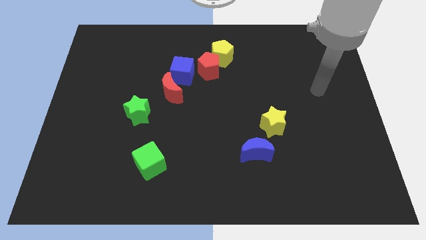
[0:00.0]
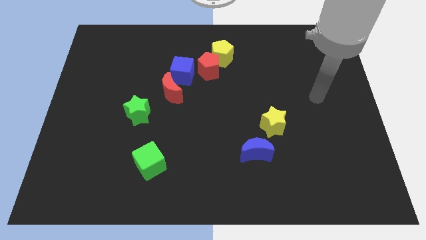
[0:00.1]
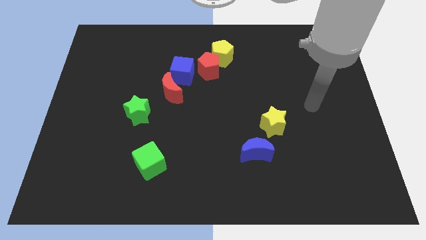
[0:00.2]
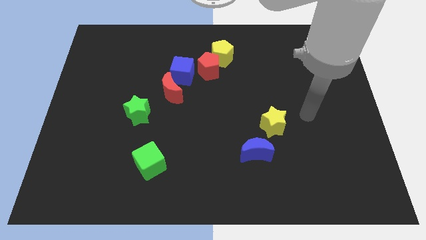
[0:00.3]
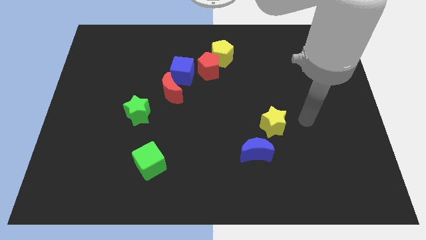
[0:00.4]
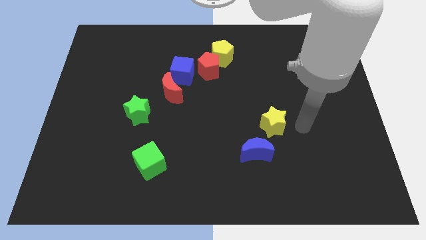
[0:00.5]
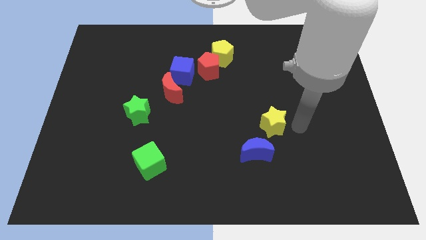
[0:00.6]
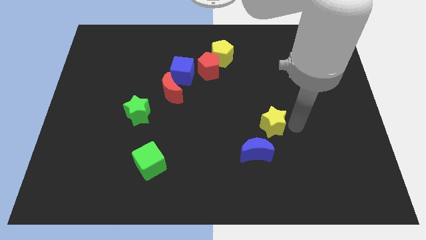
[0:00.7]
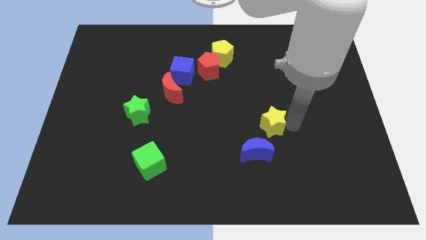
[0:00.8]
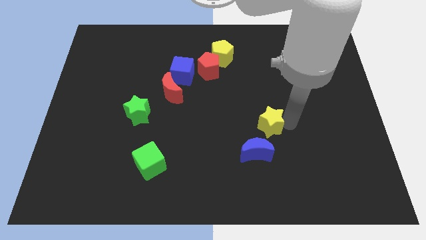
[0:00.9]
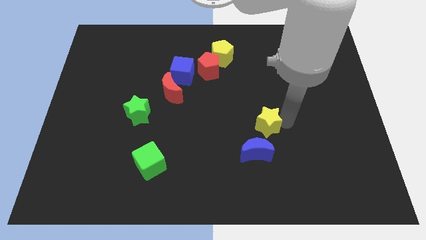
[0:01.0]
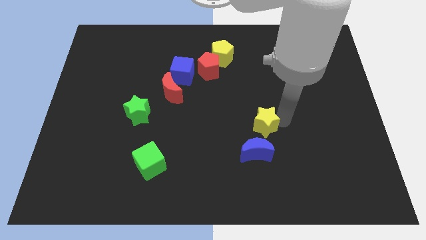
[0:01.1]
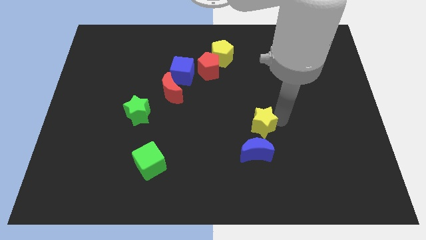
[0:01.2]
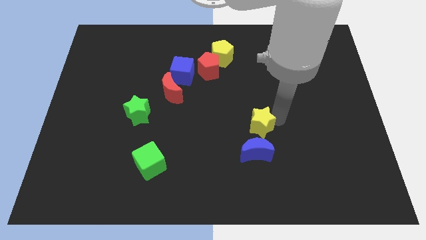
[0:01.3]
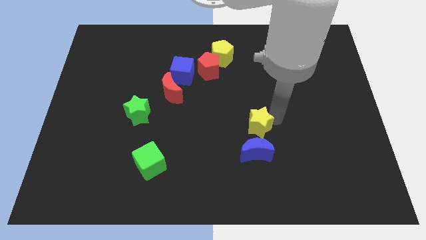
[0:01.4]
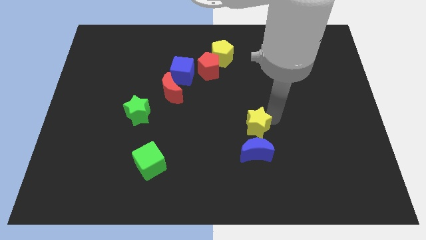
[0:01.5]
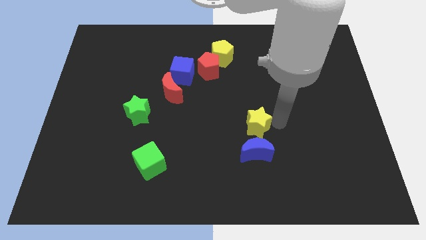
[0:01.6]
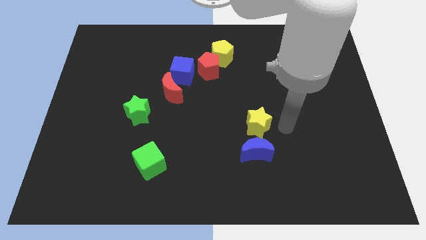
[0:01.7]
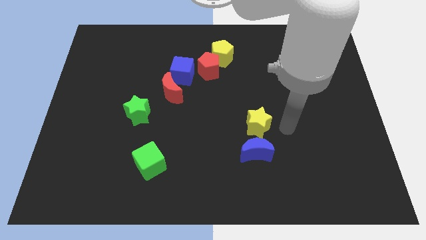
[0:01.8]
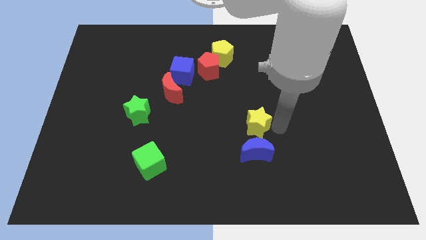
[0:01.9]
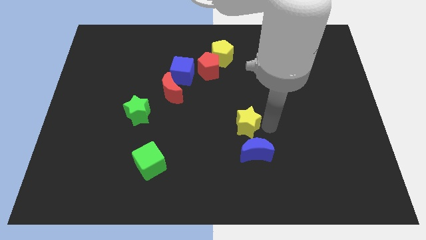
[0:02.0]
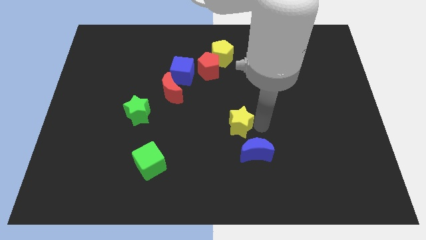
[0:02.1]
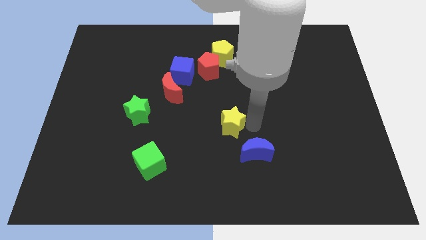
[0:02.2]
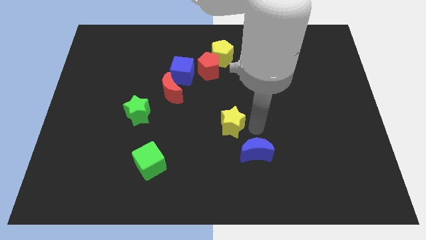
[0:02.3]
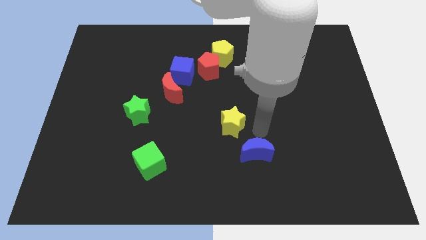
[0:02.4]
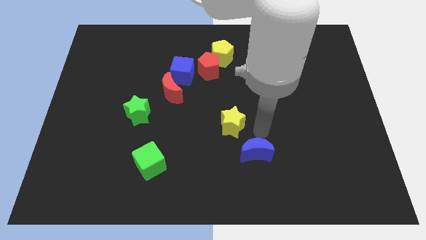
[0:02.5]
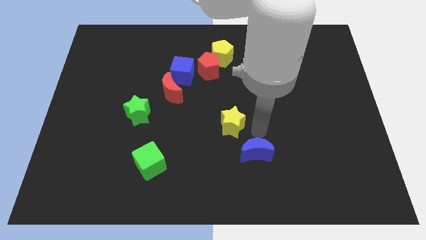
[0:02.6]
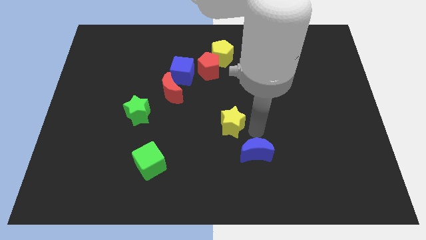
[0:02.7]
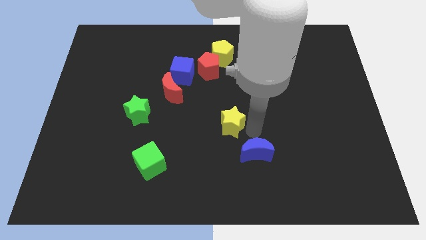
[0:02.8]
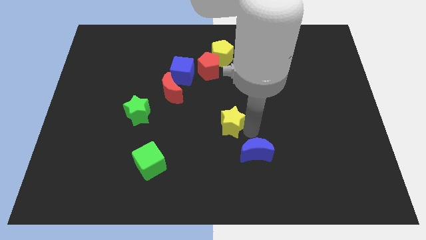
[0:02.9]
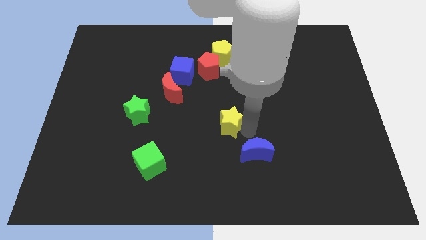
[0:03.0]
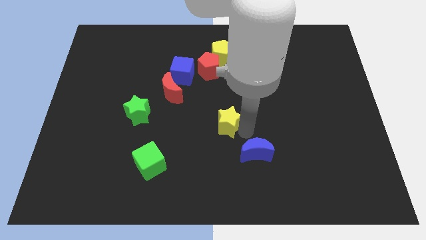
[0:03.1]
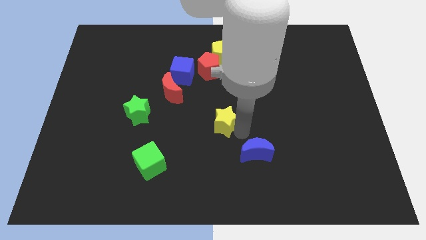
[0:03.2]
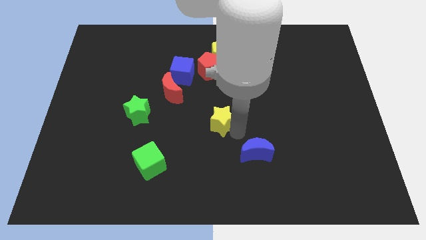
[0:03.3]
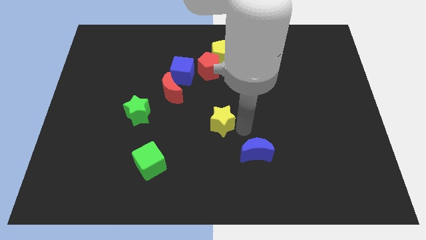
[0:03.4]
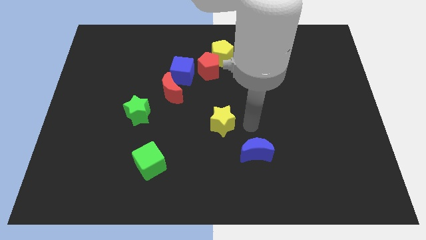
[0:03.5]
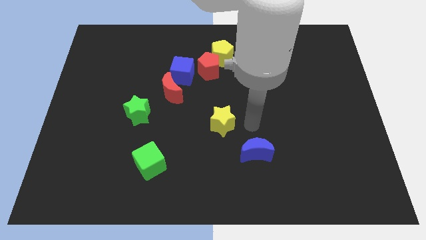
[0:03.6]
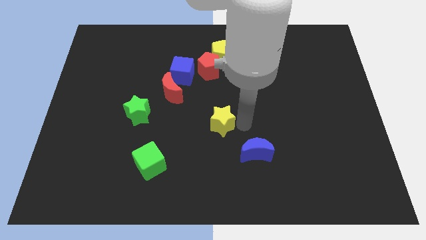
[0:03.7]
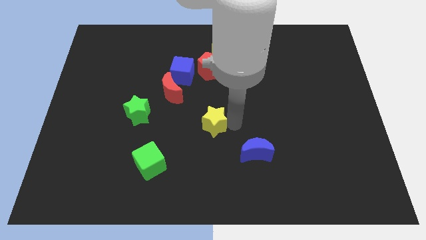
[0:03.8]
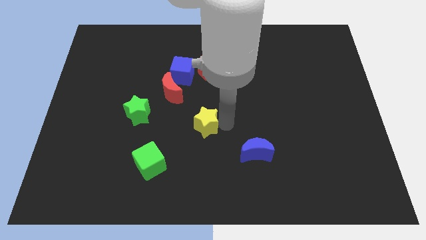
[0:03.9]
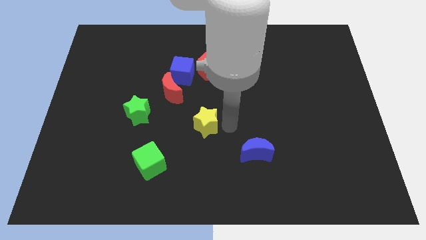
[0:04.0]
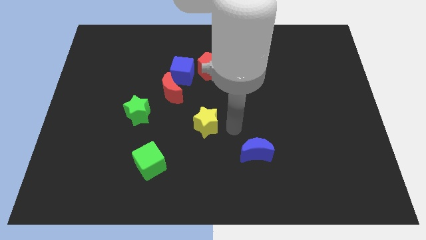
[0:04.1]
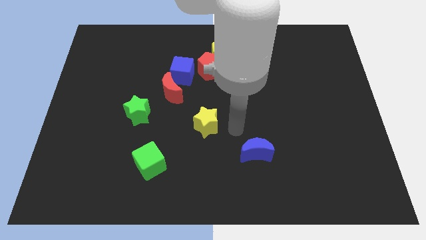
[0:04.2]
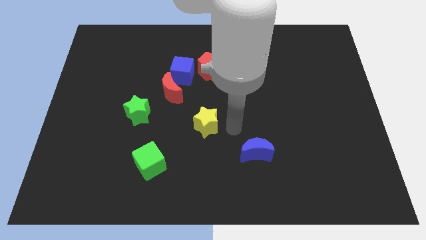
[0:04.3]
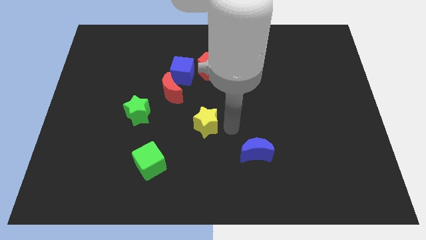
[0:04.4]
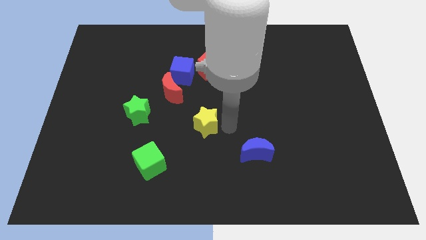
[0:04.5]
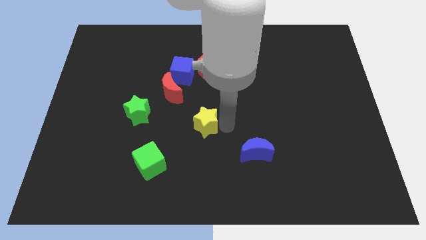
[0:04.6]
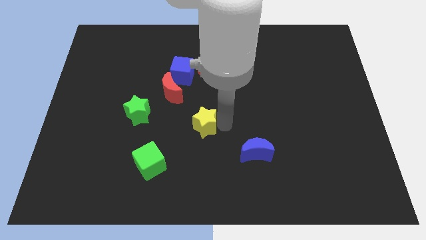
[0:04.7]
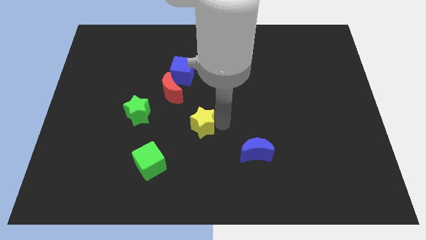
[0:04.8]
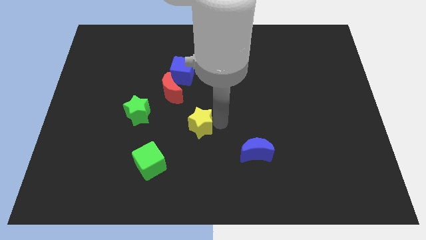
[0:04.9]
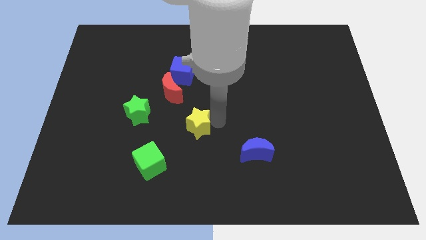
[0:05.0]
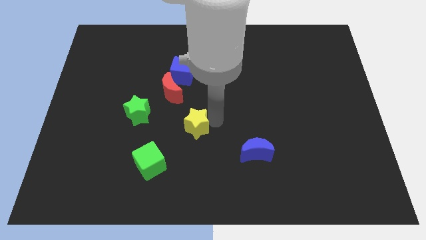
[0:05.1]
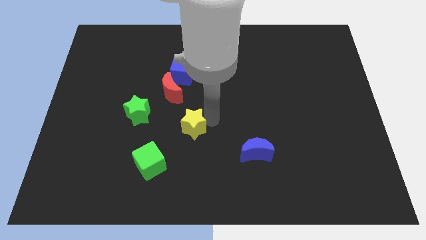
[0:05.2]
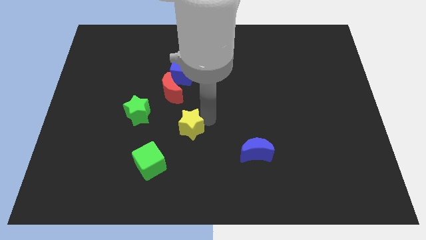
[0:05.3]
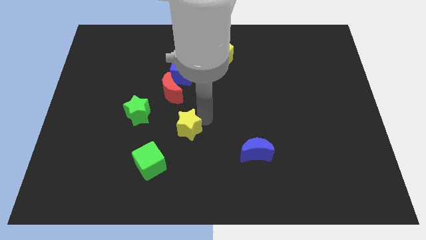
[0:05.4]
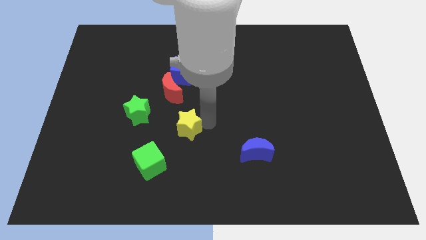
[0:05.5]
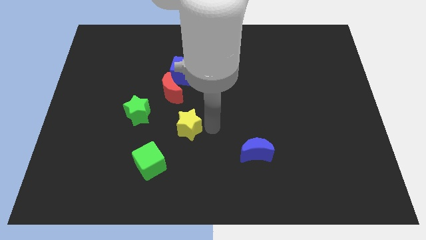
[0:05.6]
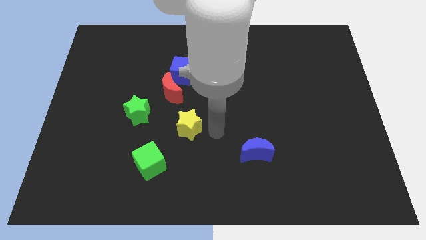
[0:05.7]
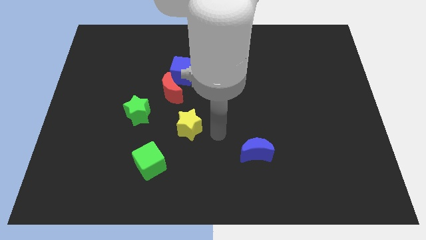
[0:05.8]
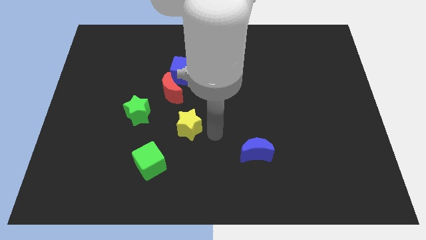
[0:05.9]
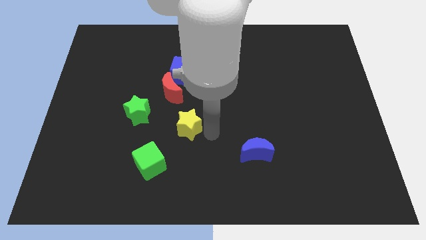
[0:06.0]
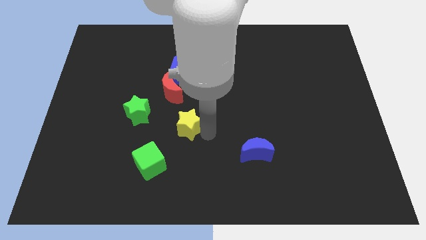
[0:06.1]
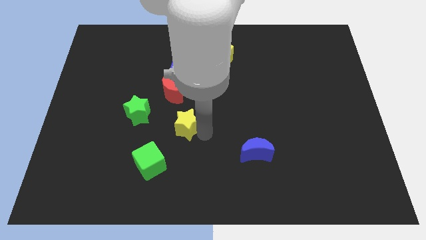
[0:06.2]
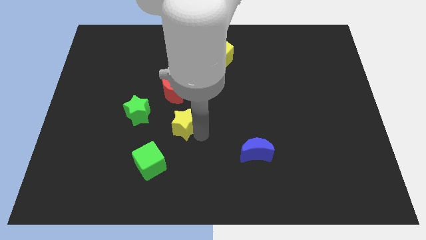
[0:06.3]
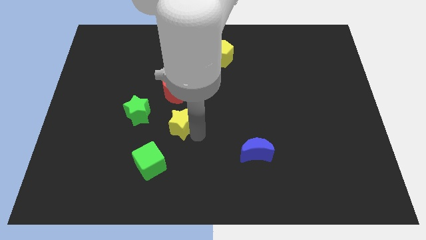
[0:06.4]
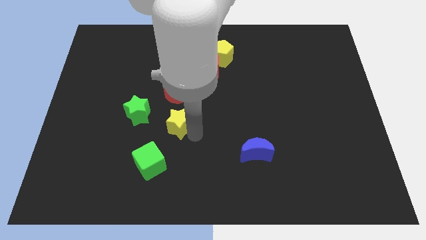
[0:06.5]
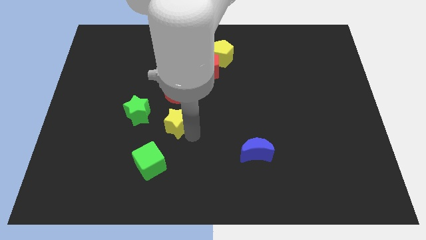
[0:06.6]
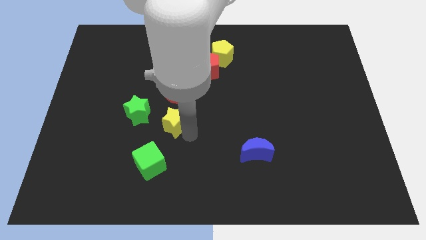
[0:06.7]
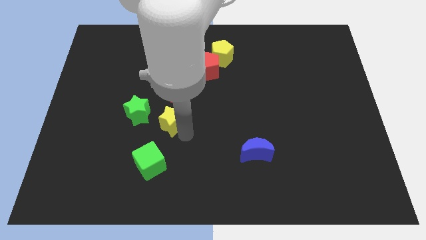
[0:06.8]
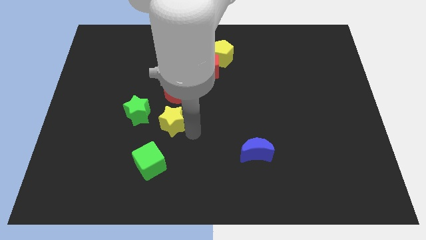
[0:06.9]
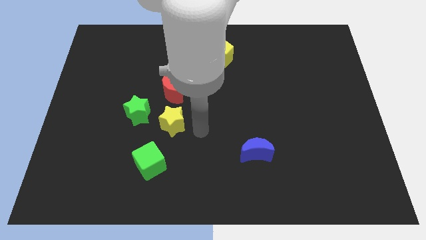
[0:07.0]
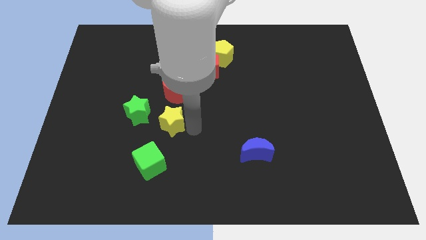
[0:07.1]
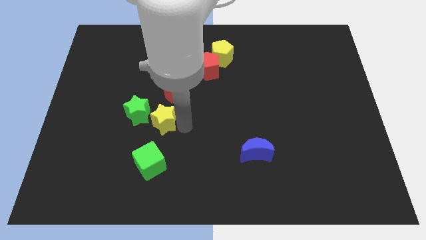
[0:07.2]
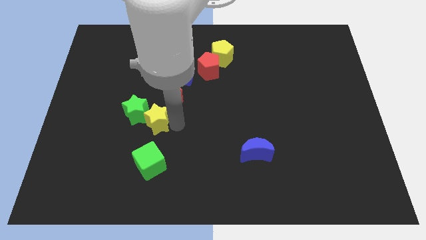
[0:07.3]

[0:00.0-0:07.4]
put the yellow star to the green star
